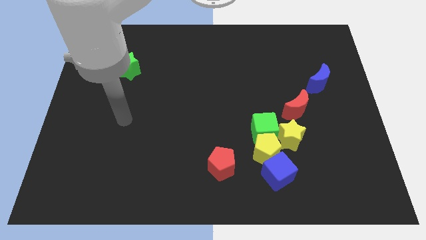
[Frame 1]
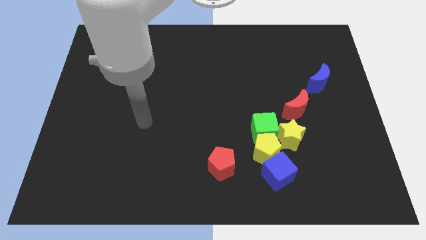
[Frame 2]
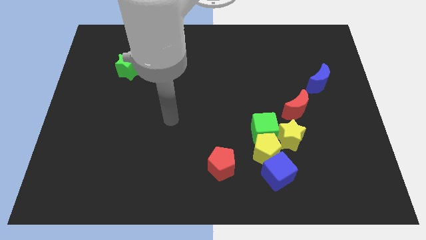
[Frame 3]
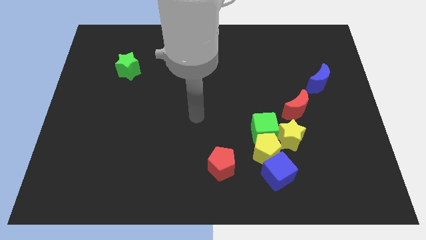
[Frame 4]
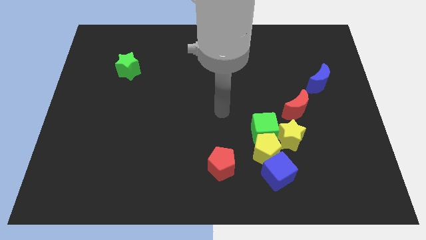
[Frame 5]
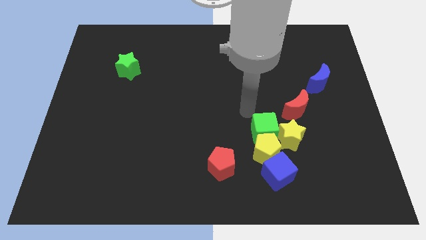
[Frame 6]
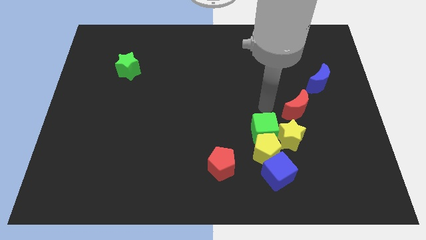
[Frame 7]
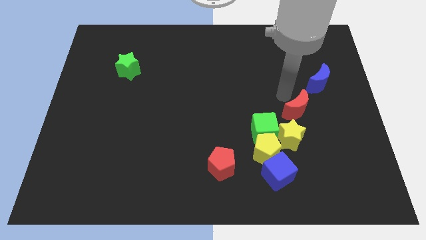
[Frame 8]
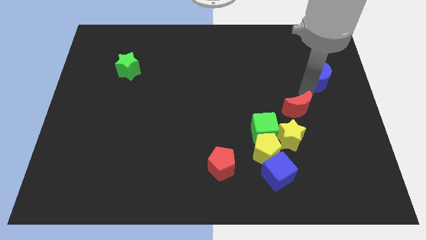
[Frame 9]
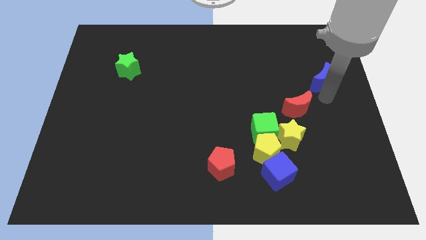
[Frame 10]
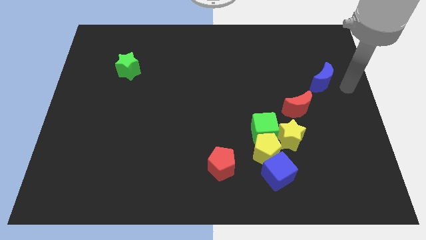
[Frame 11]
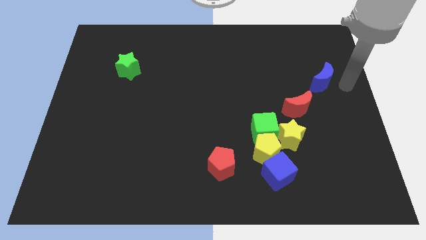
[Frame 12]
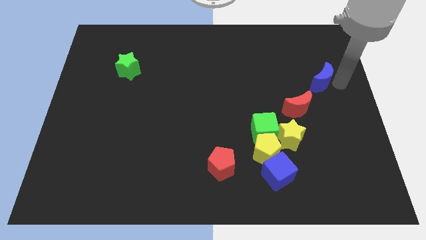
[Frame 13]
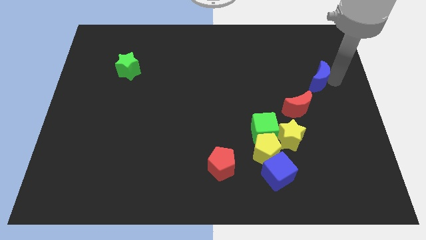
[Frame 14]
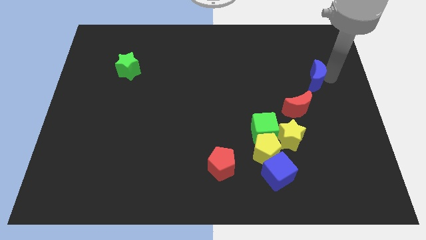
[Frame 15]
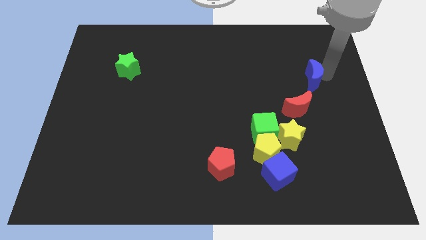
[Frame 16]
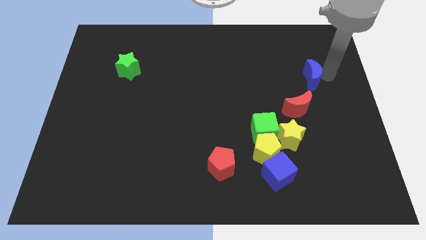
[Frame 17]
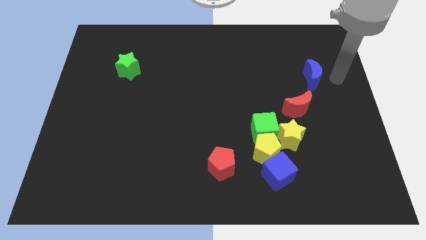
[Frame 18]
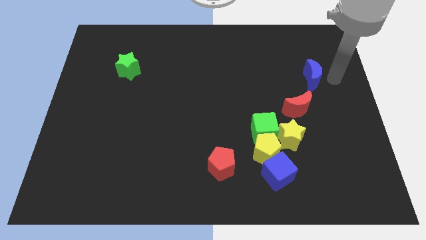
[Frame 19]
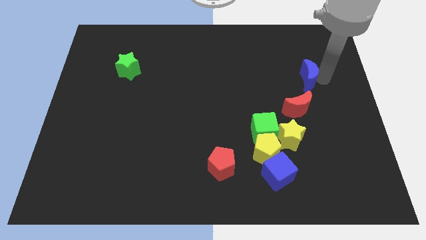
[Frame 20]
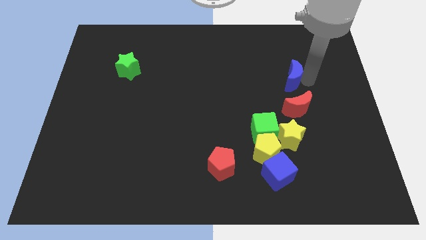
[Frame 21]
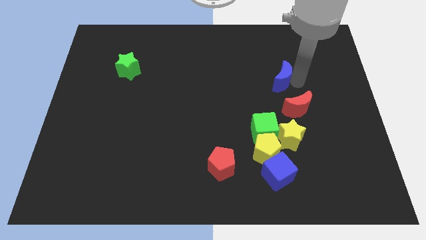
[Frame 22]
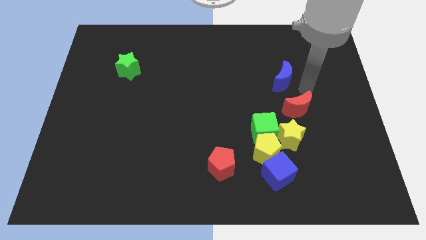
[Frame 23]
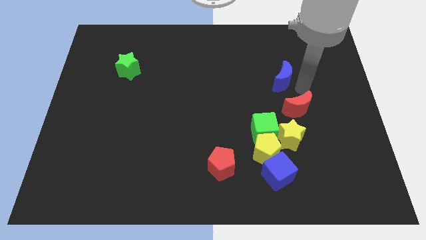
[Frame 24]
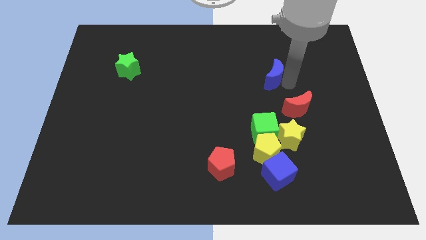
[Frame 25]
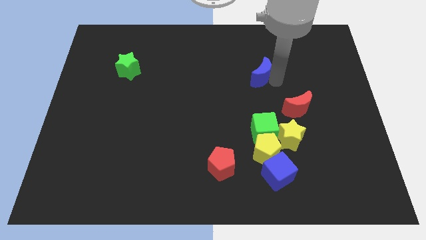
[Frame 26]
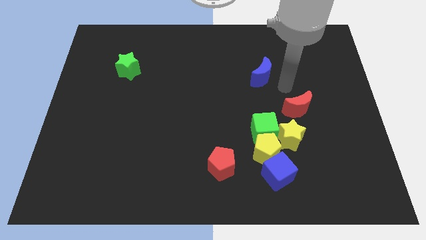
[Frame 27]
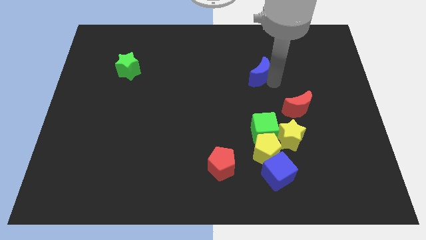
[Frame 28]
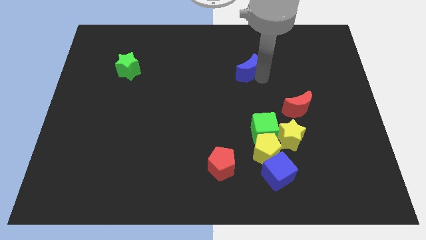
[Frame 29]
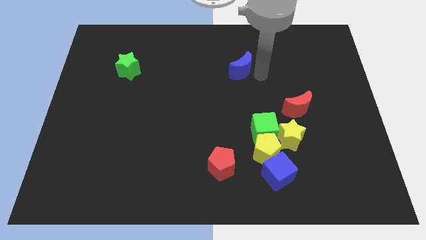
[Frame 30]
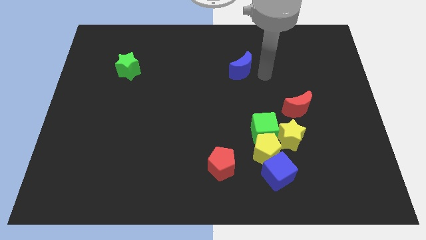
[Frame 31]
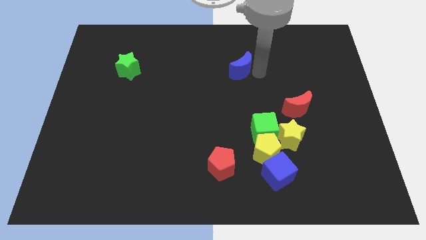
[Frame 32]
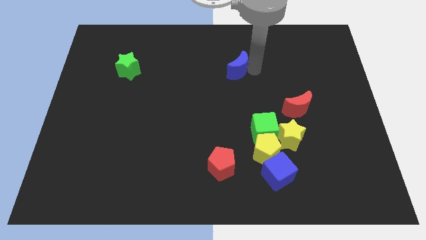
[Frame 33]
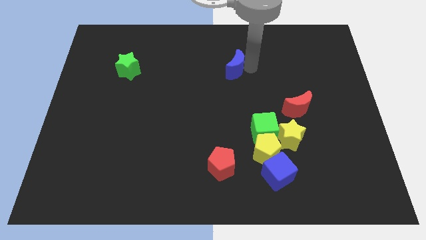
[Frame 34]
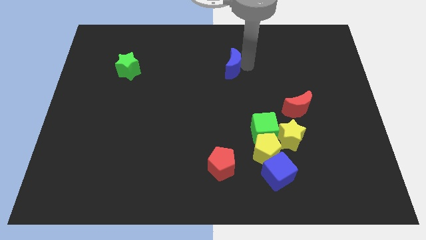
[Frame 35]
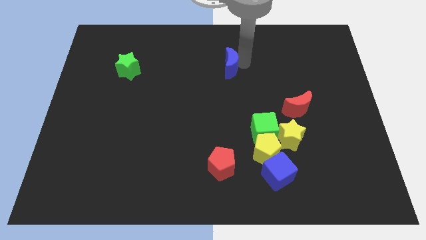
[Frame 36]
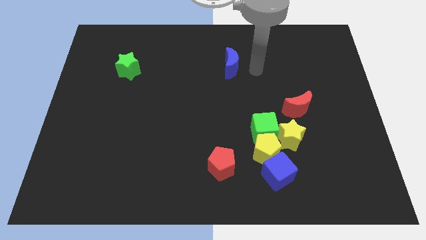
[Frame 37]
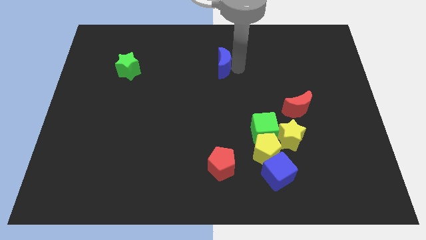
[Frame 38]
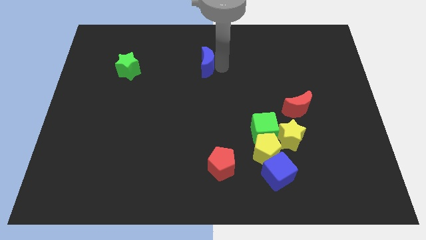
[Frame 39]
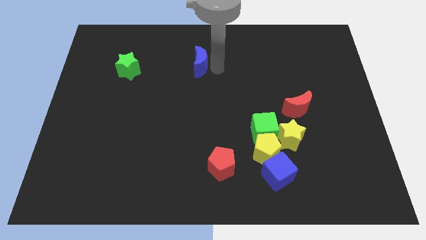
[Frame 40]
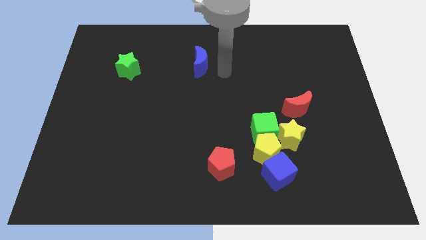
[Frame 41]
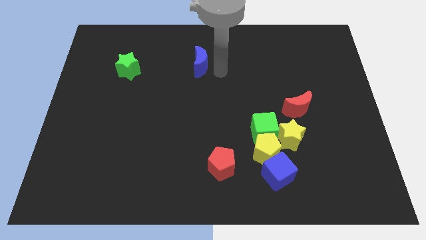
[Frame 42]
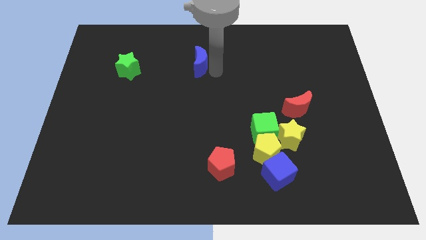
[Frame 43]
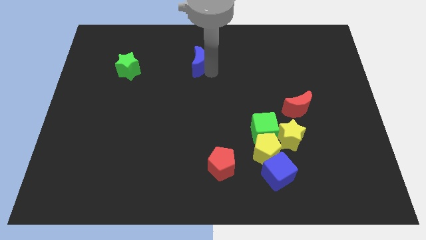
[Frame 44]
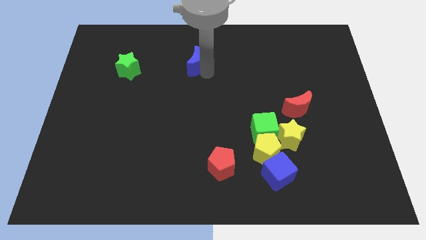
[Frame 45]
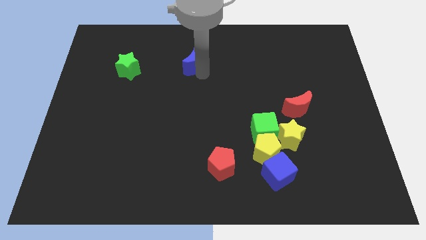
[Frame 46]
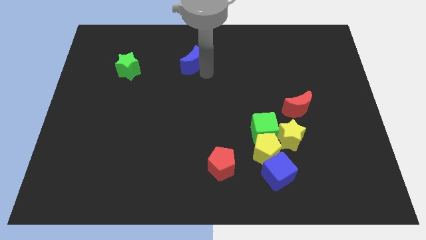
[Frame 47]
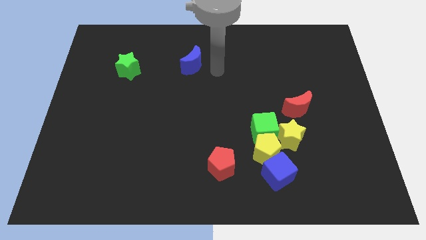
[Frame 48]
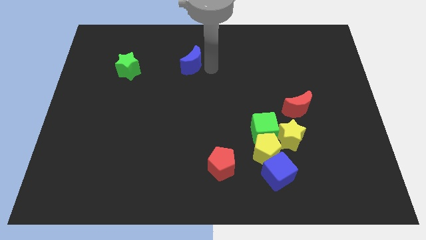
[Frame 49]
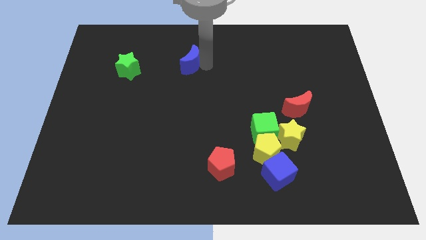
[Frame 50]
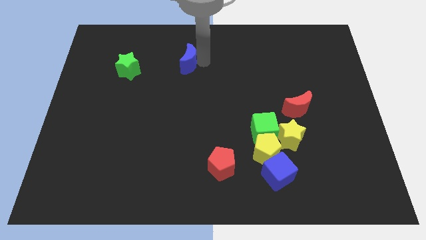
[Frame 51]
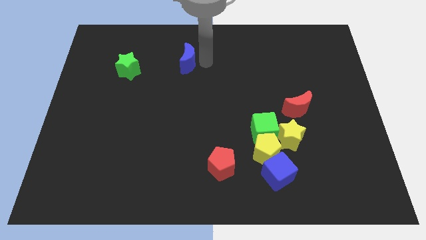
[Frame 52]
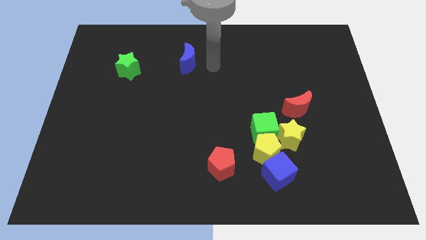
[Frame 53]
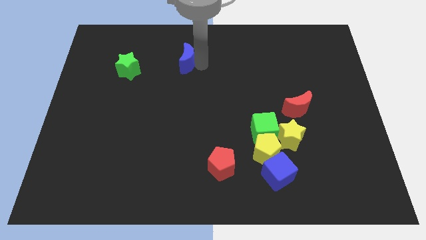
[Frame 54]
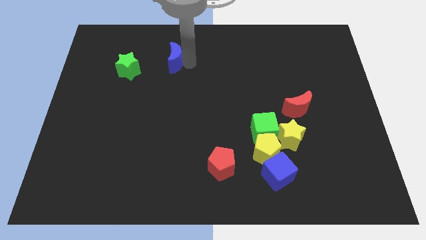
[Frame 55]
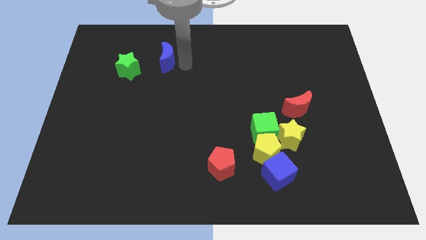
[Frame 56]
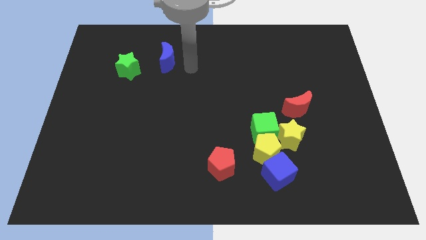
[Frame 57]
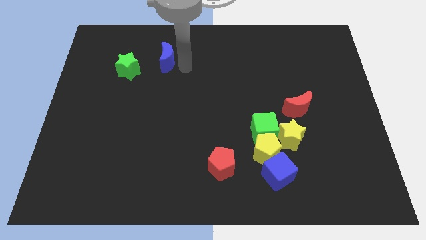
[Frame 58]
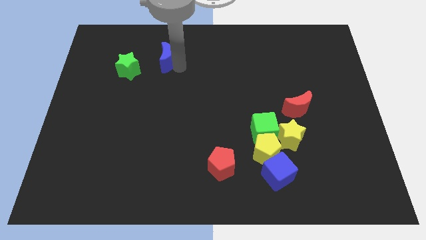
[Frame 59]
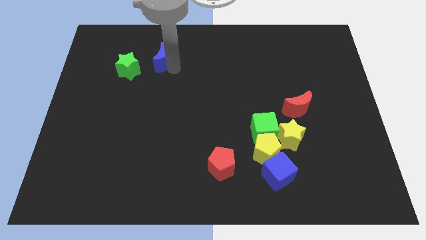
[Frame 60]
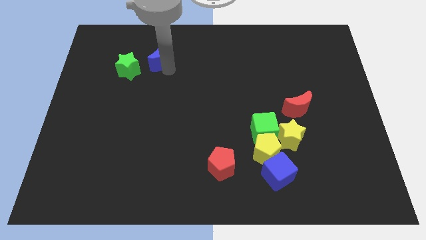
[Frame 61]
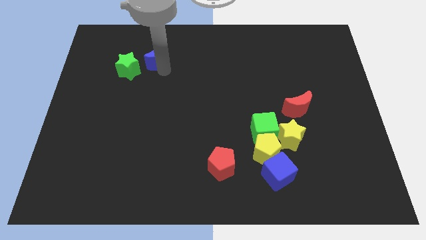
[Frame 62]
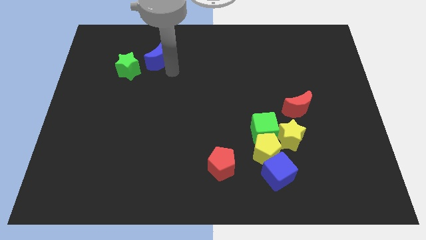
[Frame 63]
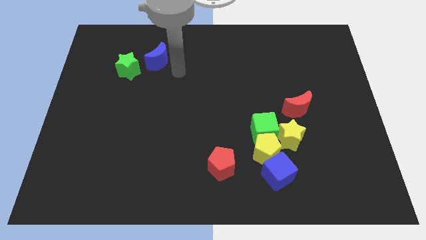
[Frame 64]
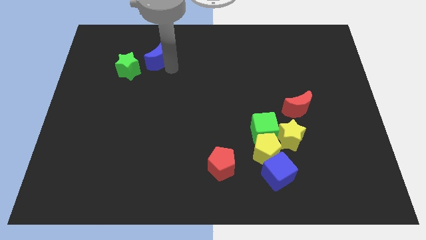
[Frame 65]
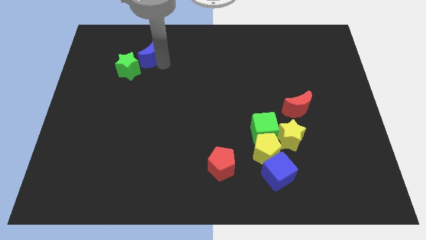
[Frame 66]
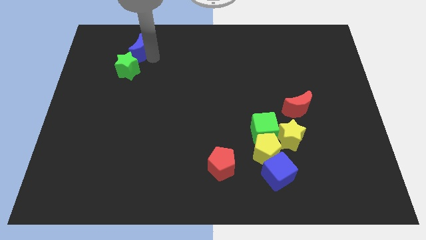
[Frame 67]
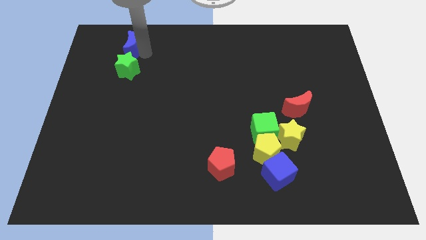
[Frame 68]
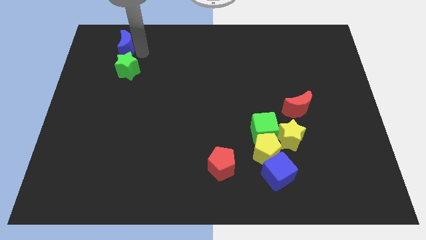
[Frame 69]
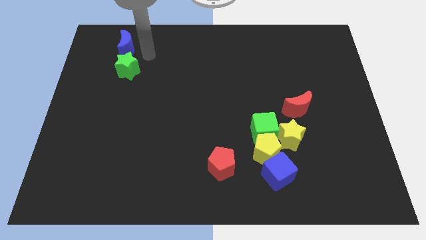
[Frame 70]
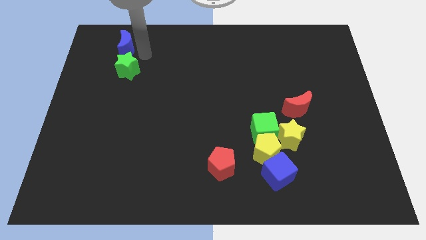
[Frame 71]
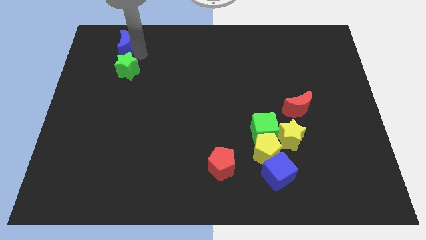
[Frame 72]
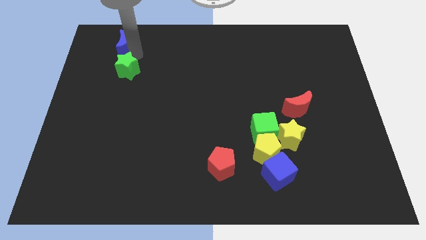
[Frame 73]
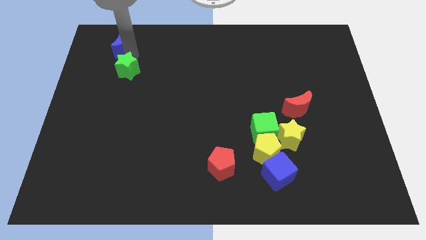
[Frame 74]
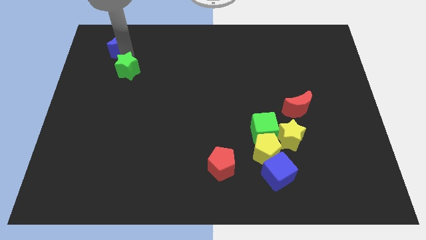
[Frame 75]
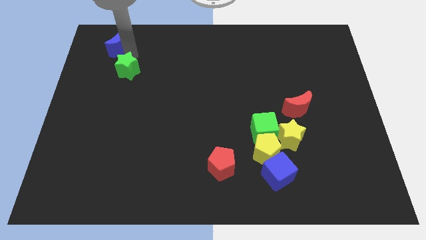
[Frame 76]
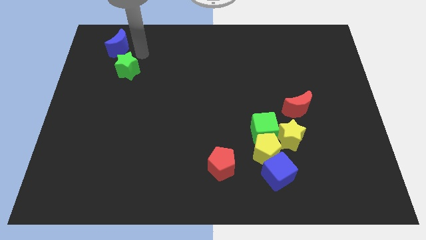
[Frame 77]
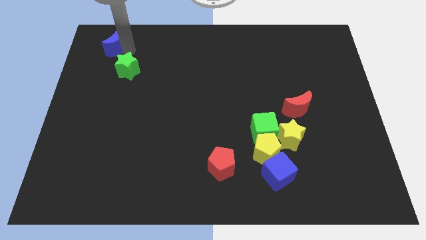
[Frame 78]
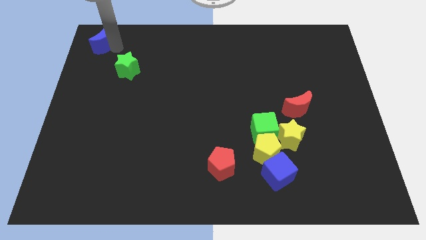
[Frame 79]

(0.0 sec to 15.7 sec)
slide the blue moon to the upper left corner
